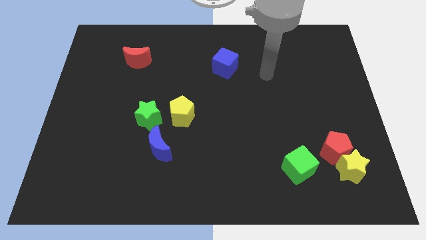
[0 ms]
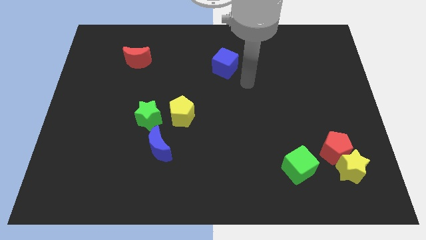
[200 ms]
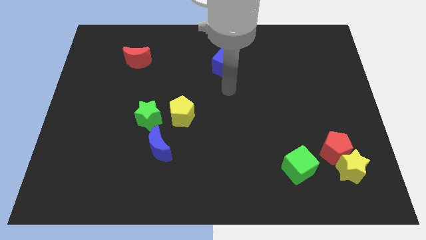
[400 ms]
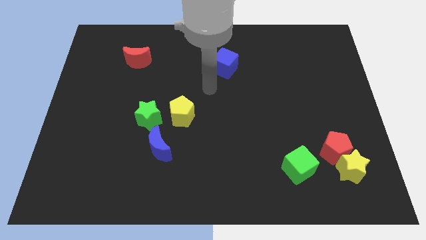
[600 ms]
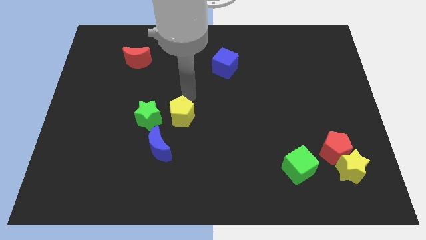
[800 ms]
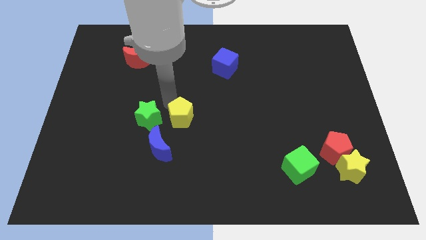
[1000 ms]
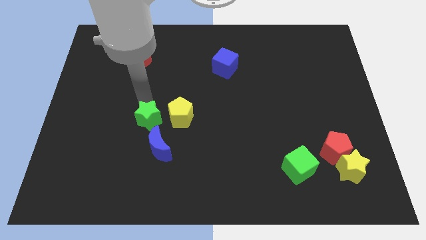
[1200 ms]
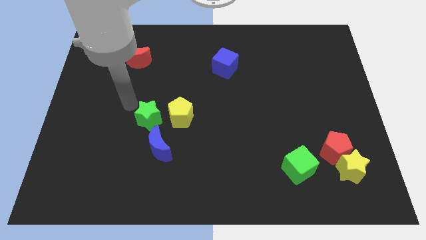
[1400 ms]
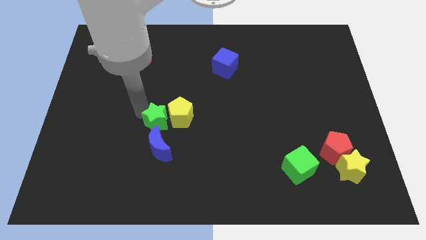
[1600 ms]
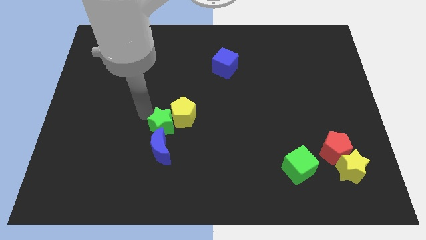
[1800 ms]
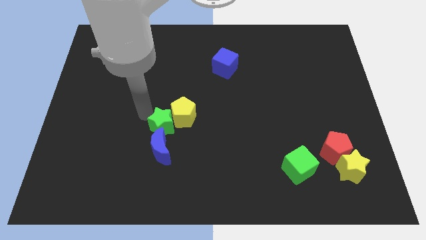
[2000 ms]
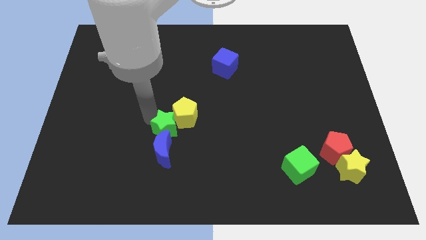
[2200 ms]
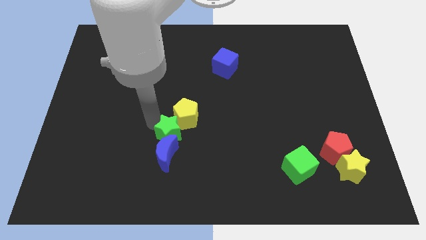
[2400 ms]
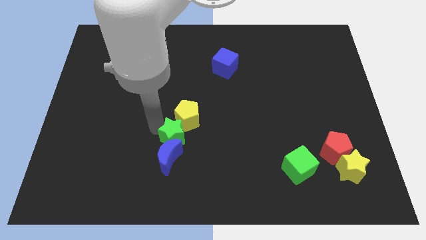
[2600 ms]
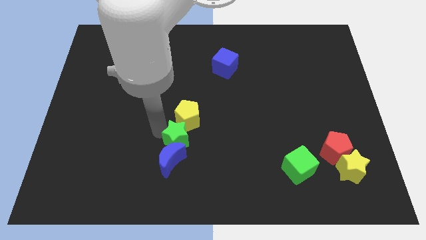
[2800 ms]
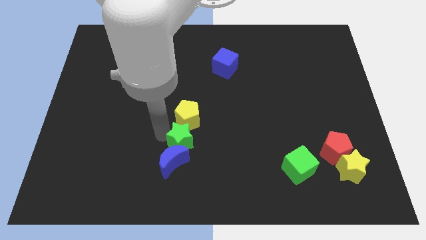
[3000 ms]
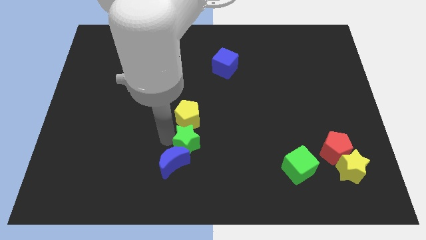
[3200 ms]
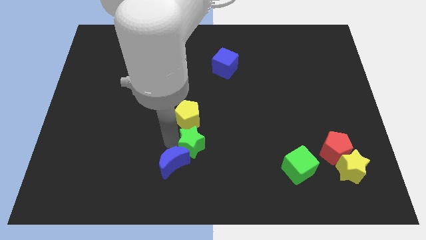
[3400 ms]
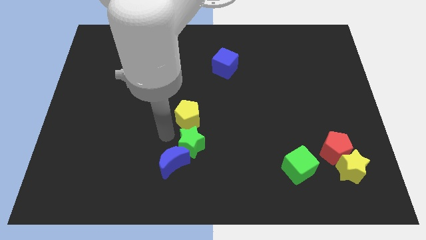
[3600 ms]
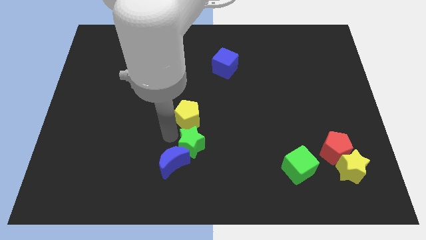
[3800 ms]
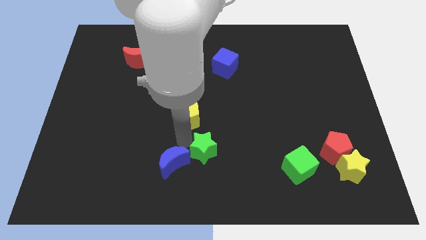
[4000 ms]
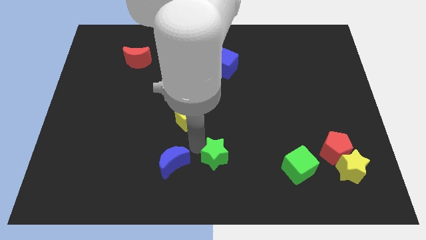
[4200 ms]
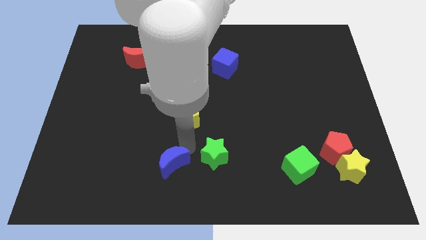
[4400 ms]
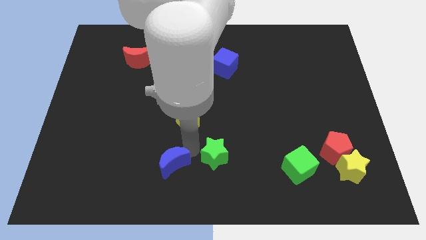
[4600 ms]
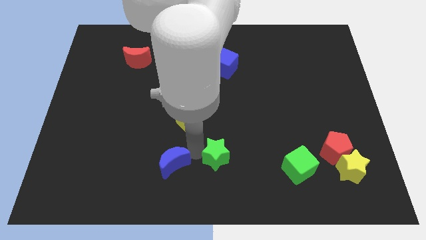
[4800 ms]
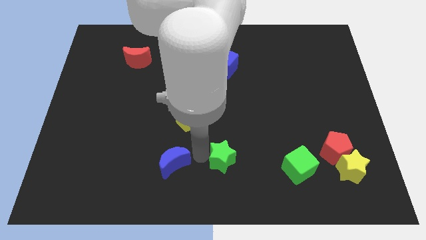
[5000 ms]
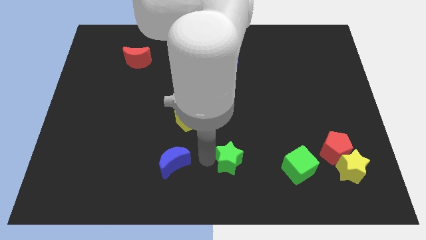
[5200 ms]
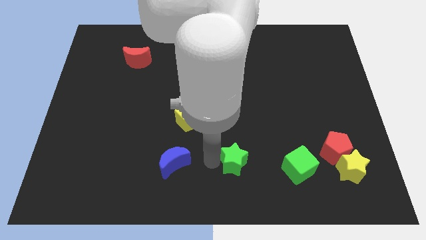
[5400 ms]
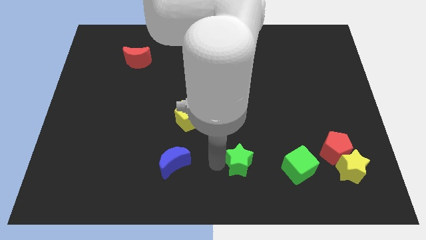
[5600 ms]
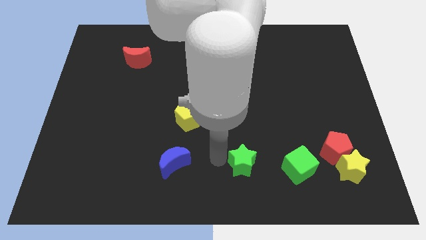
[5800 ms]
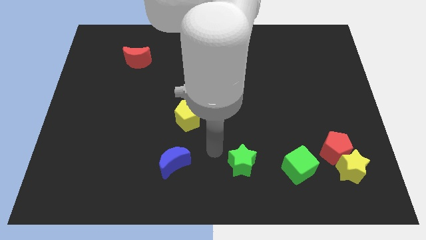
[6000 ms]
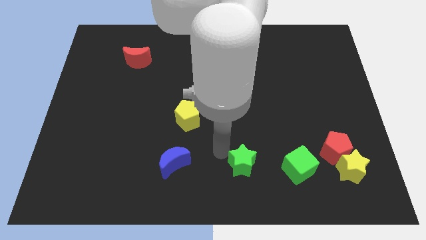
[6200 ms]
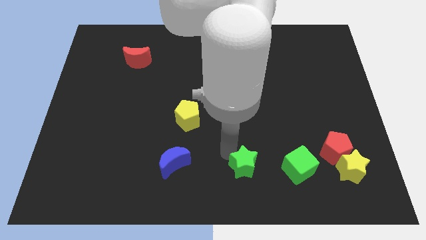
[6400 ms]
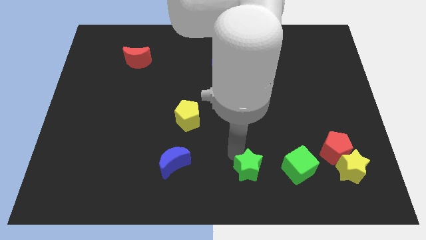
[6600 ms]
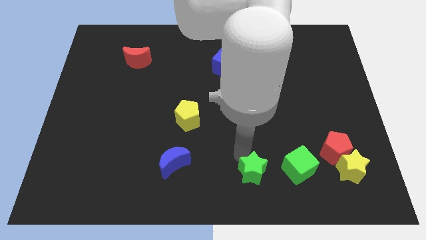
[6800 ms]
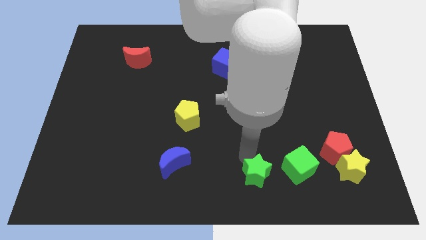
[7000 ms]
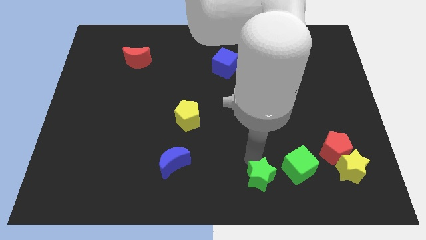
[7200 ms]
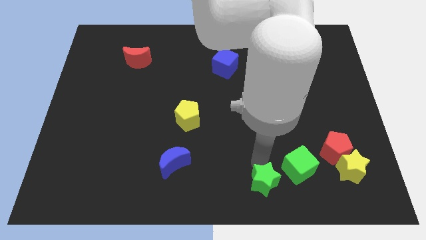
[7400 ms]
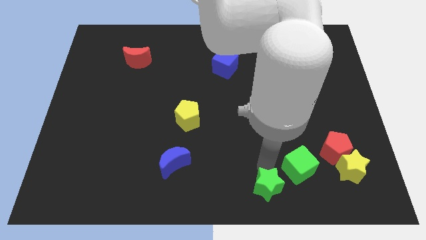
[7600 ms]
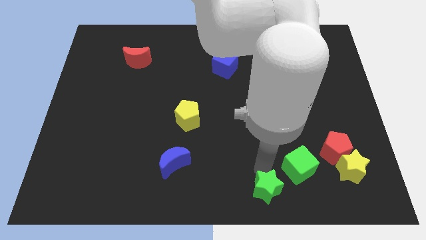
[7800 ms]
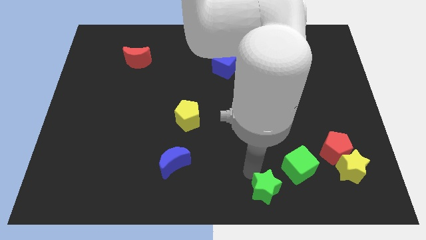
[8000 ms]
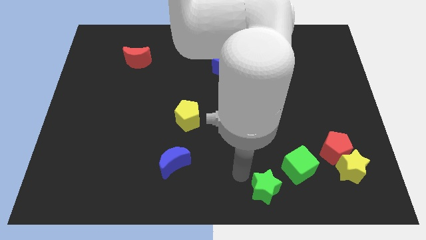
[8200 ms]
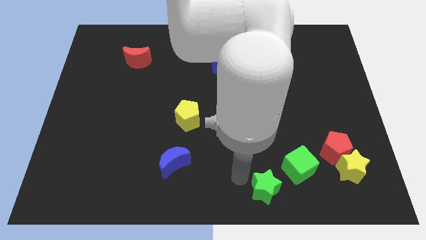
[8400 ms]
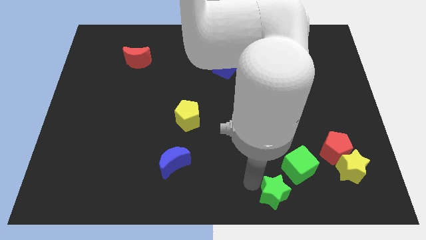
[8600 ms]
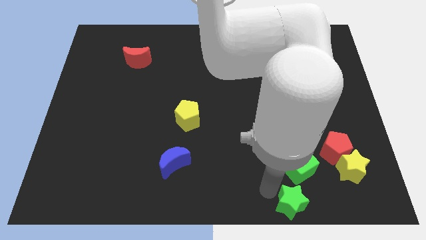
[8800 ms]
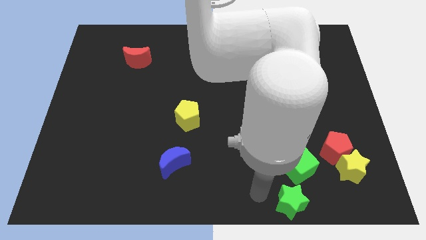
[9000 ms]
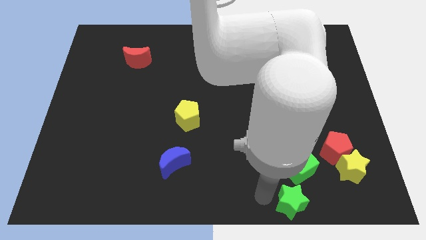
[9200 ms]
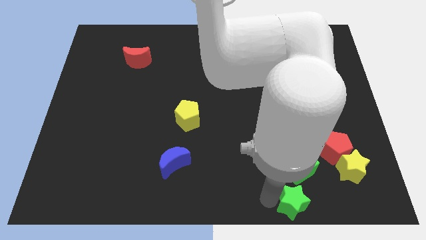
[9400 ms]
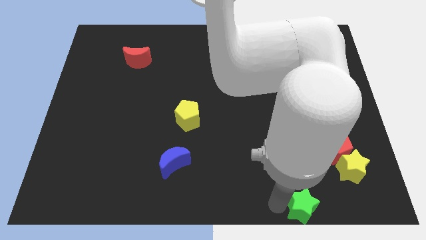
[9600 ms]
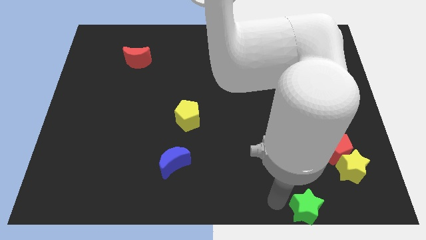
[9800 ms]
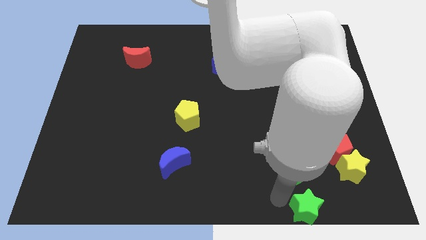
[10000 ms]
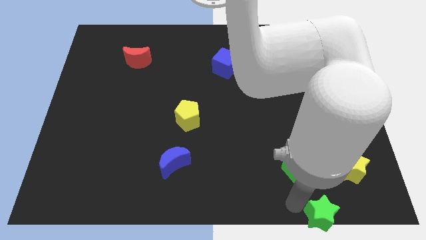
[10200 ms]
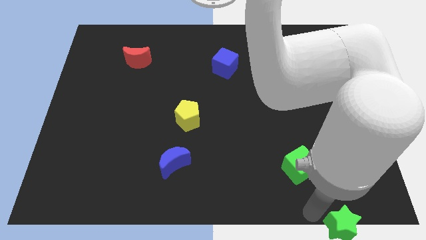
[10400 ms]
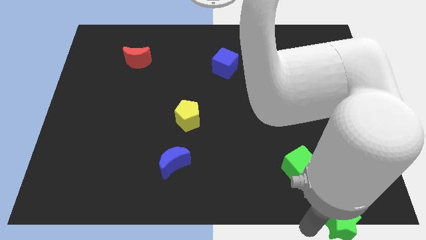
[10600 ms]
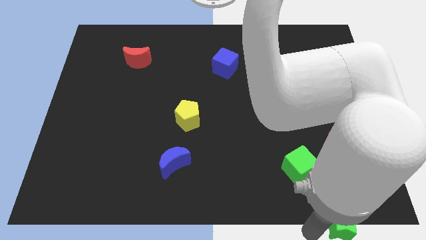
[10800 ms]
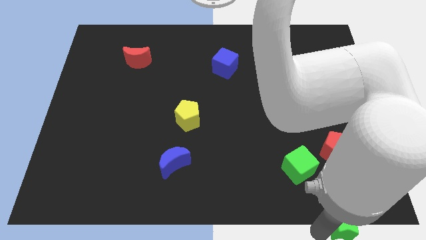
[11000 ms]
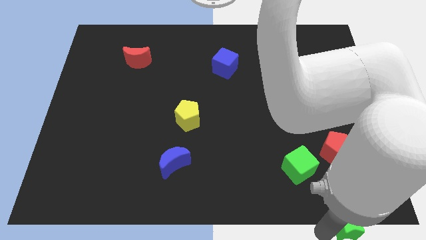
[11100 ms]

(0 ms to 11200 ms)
slide the green star to the bottom right of the board

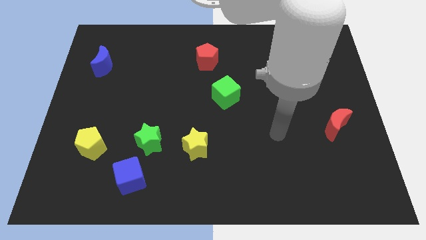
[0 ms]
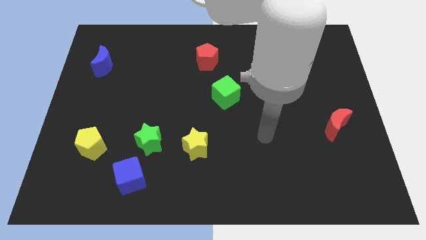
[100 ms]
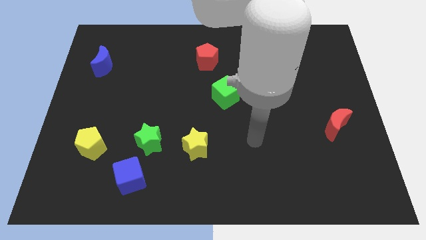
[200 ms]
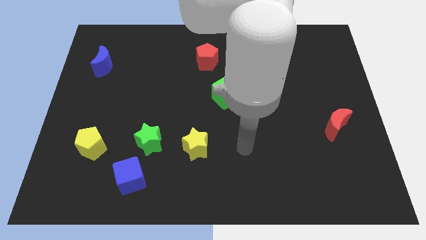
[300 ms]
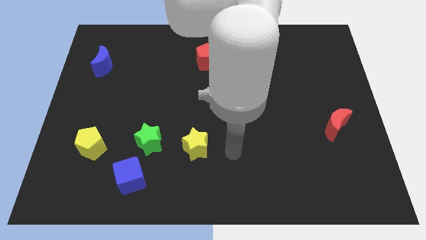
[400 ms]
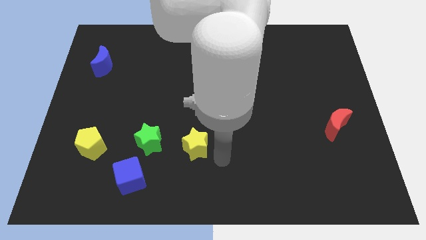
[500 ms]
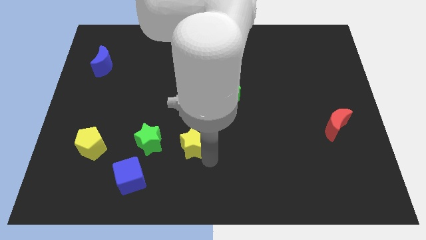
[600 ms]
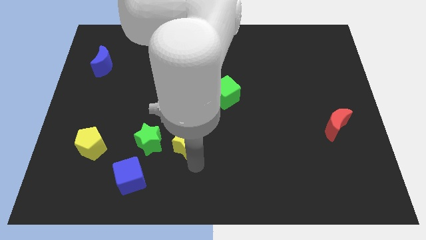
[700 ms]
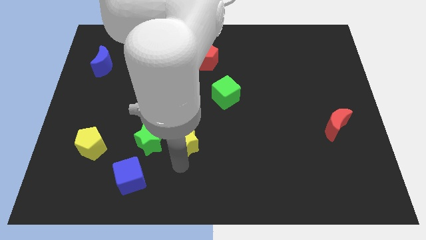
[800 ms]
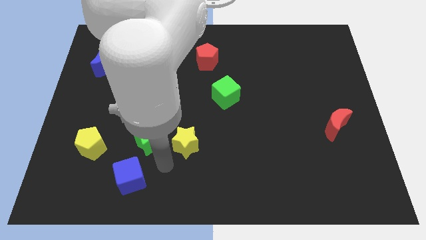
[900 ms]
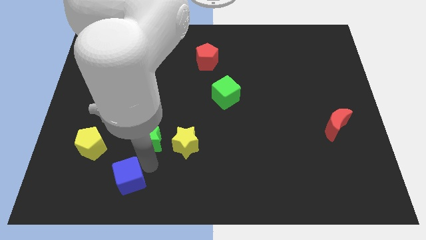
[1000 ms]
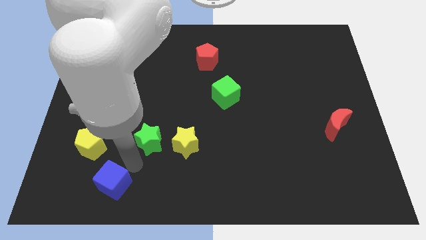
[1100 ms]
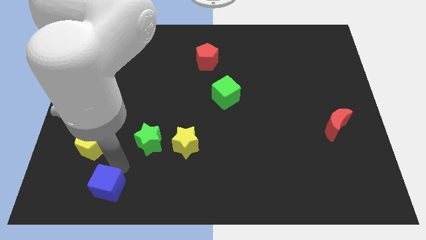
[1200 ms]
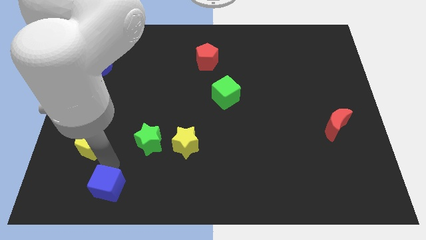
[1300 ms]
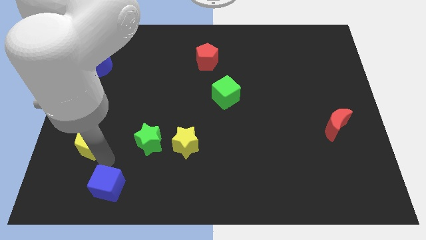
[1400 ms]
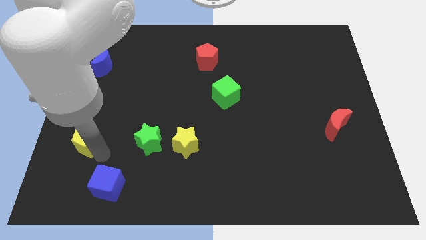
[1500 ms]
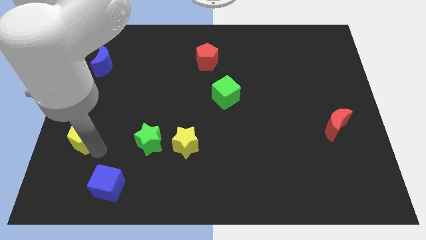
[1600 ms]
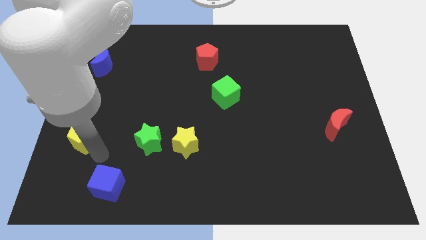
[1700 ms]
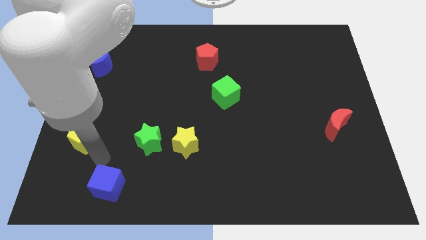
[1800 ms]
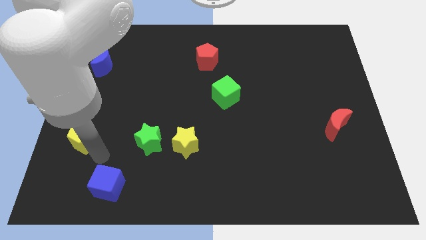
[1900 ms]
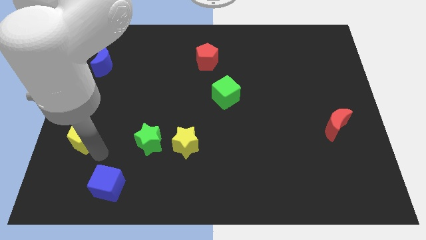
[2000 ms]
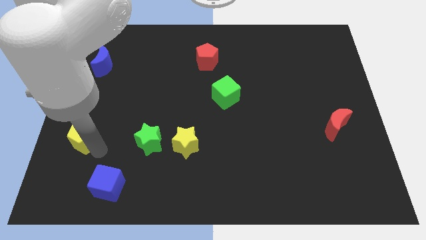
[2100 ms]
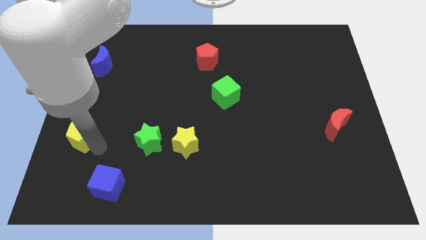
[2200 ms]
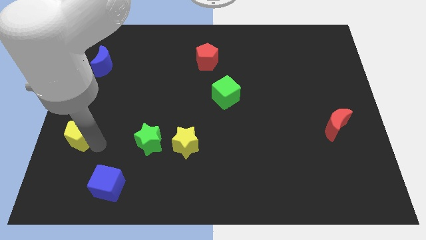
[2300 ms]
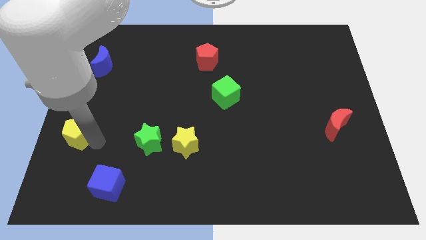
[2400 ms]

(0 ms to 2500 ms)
put the yellow pentagon to the center left
